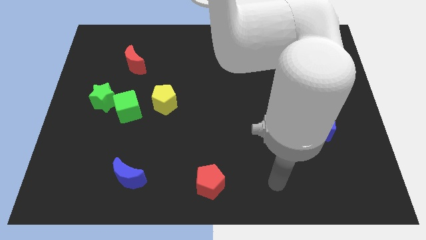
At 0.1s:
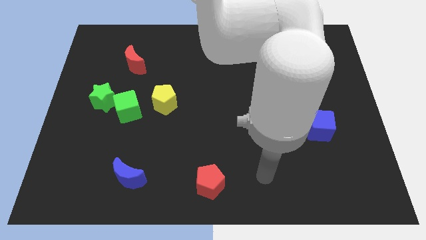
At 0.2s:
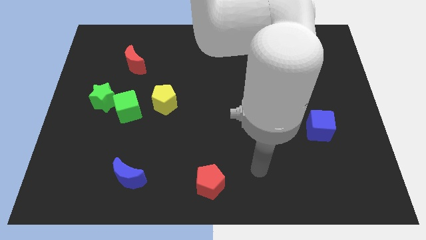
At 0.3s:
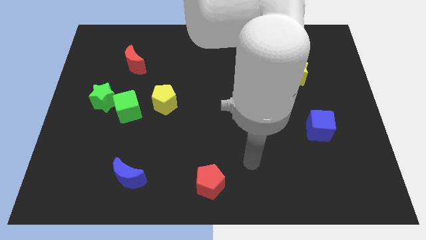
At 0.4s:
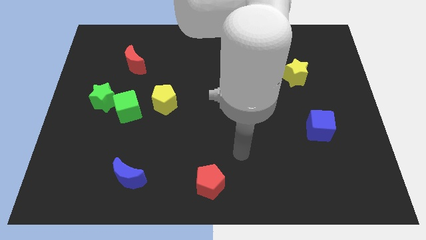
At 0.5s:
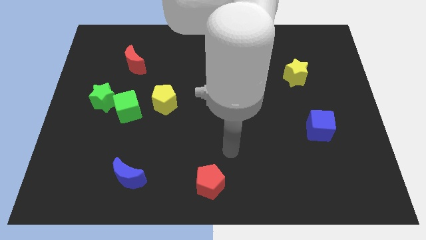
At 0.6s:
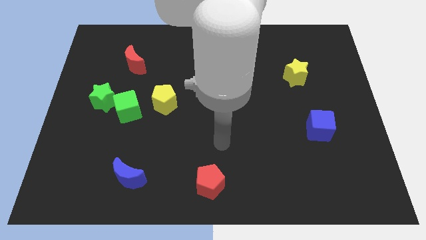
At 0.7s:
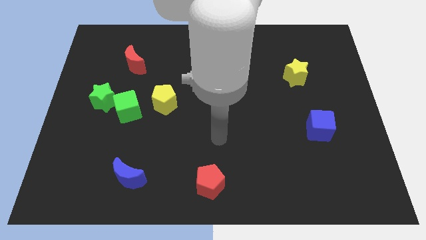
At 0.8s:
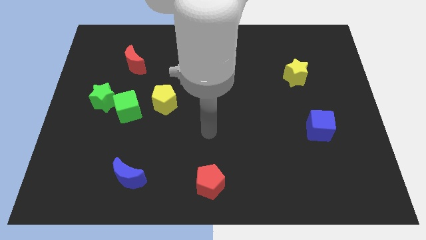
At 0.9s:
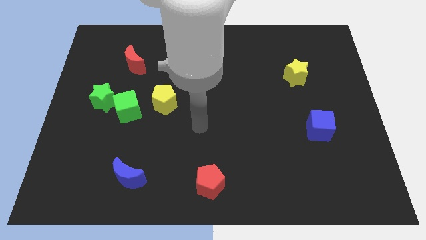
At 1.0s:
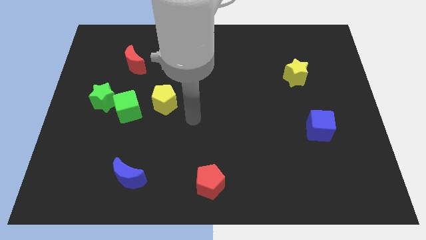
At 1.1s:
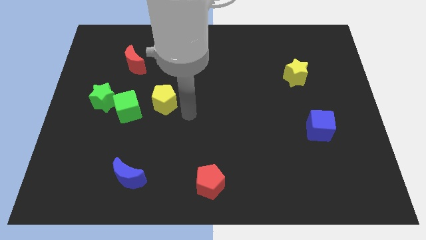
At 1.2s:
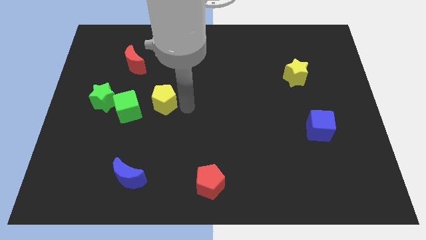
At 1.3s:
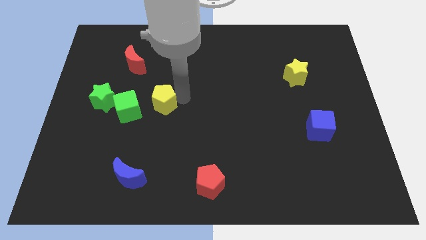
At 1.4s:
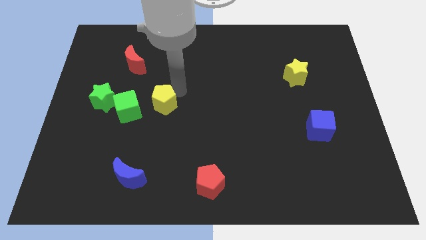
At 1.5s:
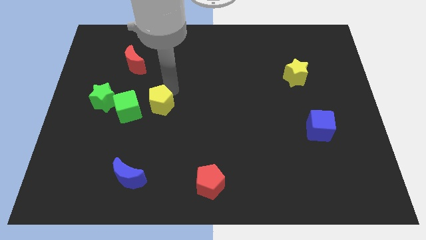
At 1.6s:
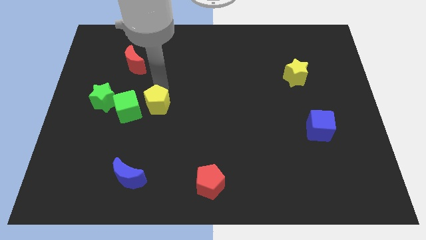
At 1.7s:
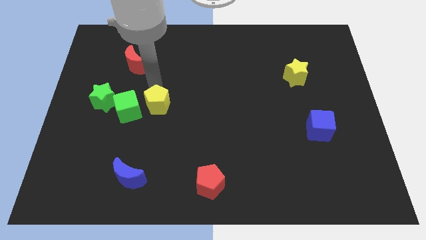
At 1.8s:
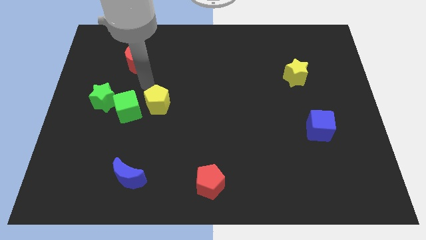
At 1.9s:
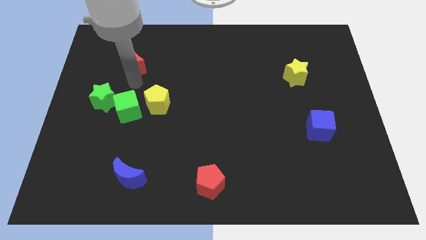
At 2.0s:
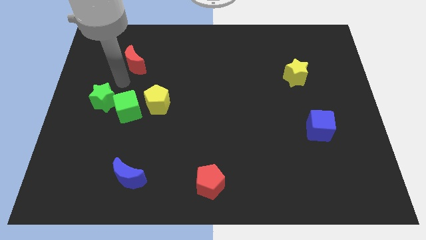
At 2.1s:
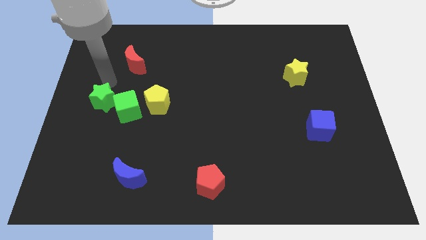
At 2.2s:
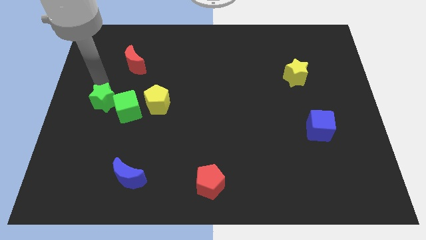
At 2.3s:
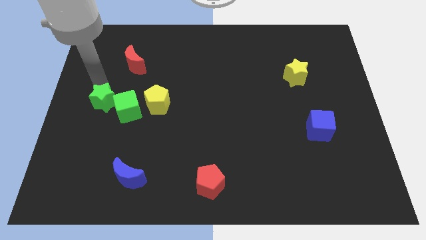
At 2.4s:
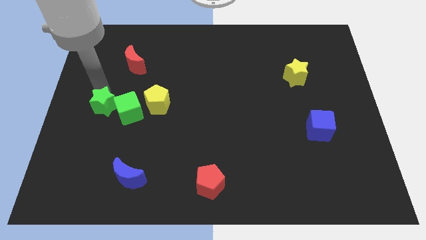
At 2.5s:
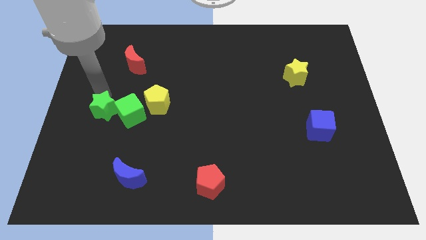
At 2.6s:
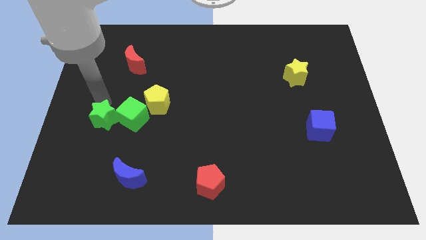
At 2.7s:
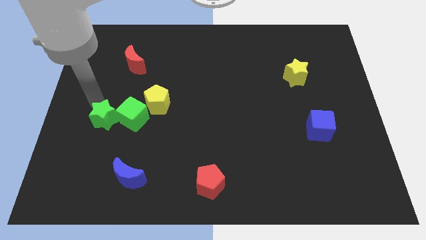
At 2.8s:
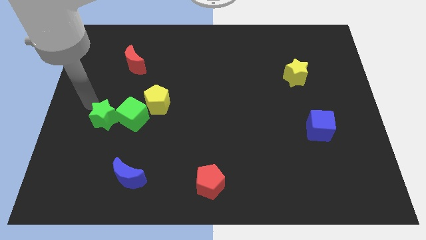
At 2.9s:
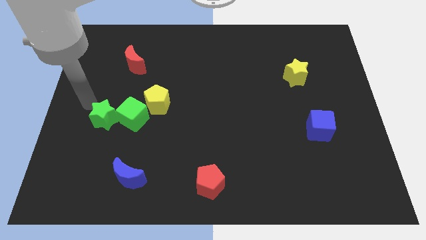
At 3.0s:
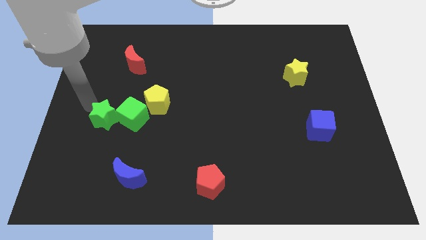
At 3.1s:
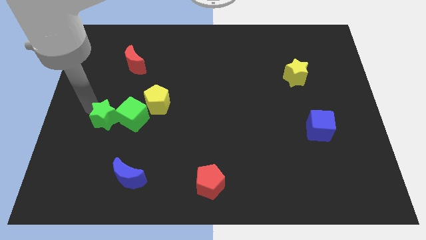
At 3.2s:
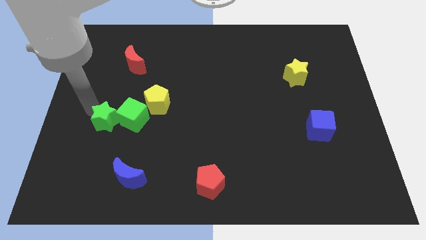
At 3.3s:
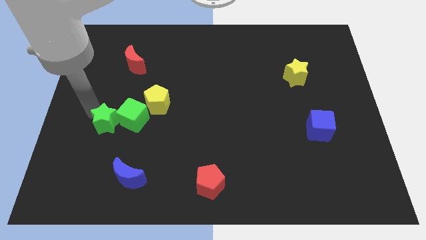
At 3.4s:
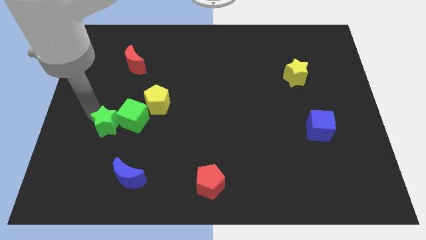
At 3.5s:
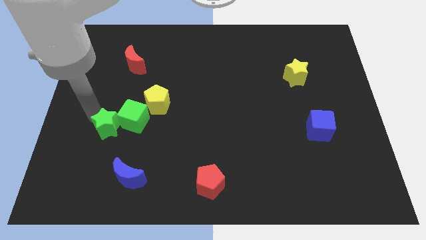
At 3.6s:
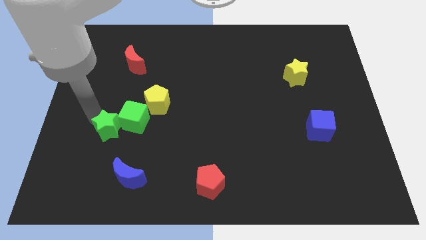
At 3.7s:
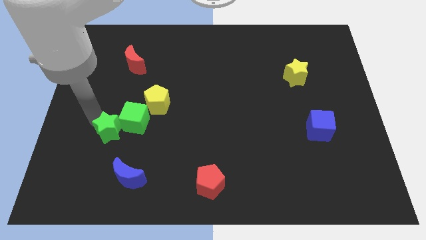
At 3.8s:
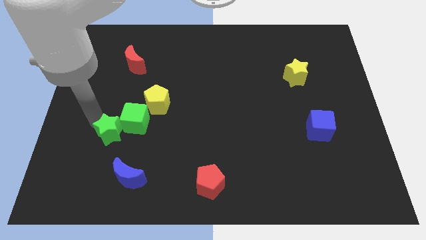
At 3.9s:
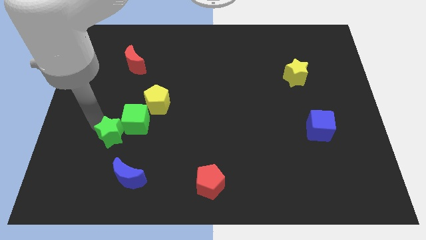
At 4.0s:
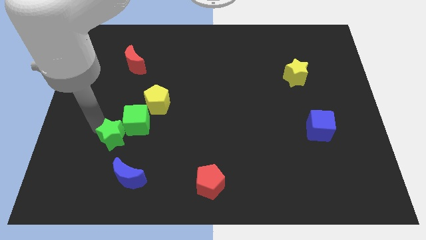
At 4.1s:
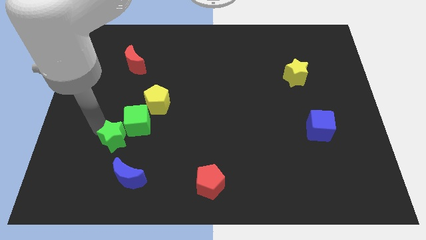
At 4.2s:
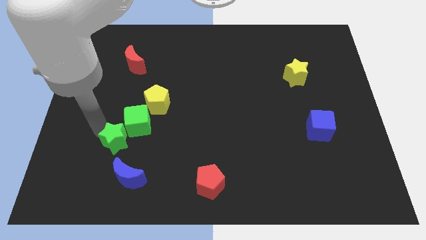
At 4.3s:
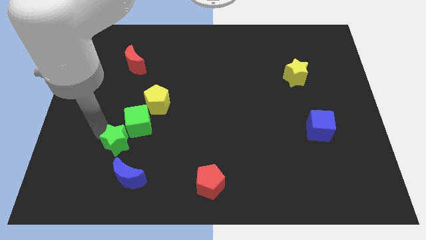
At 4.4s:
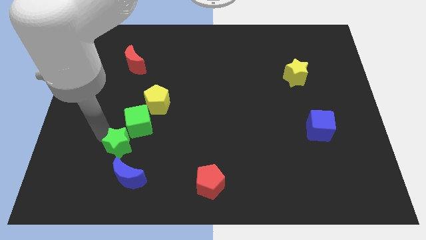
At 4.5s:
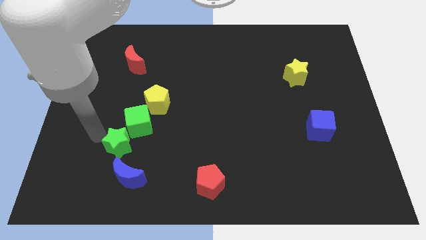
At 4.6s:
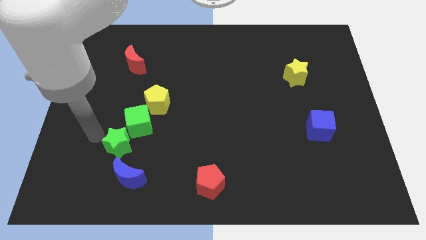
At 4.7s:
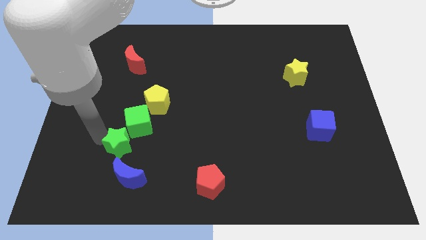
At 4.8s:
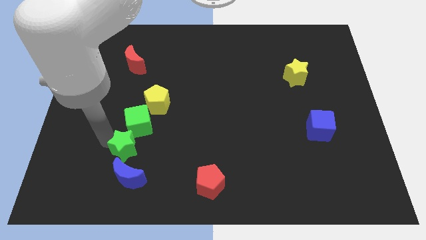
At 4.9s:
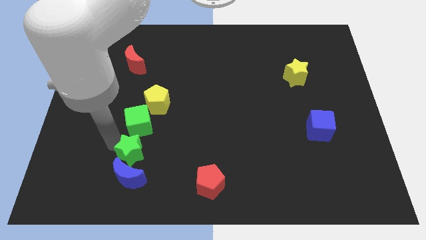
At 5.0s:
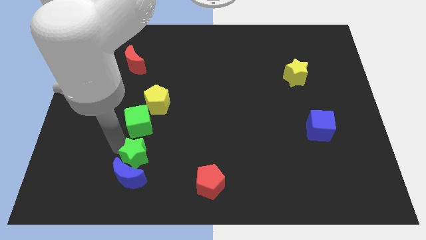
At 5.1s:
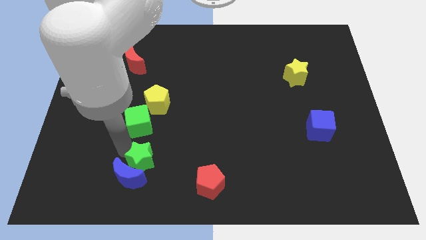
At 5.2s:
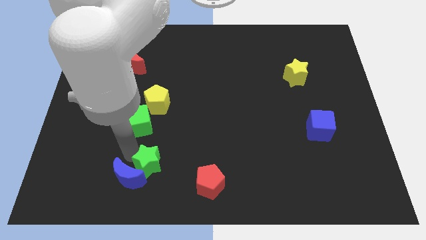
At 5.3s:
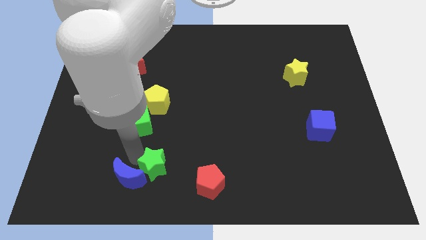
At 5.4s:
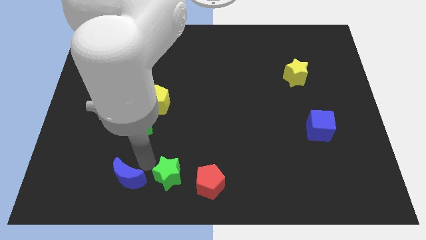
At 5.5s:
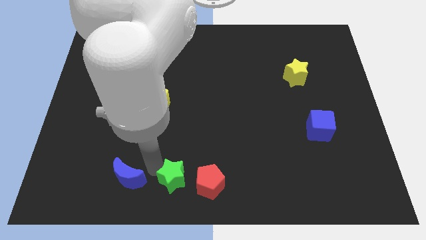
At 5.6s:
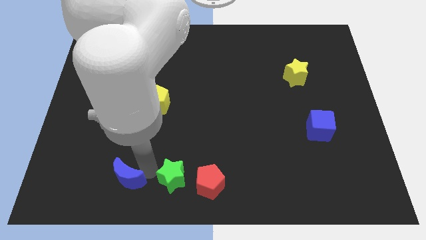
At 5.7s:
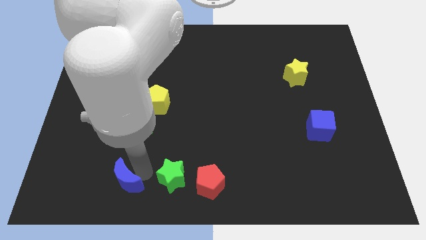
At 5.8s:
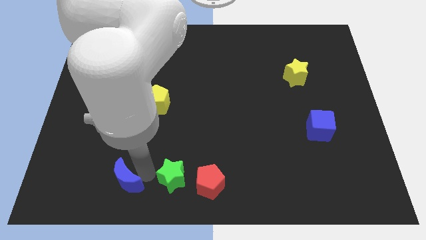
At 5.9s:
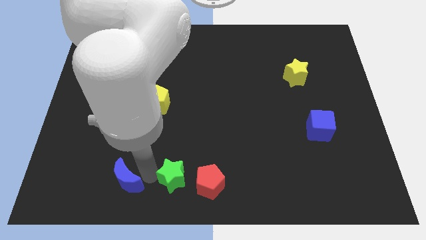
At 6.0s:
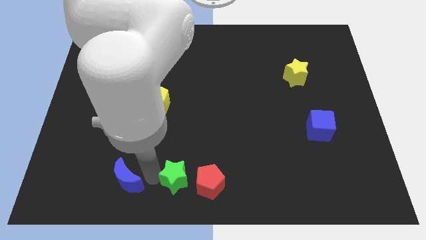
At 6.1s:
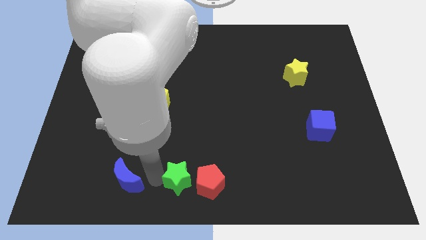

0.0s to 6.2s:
move the green star close to the red pentagon

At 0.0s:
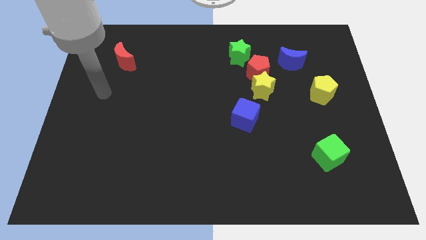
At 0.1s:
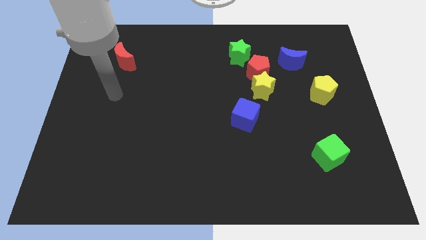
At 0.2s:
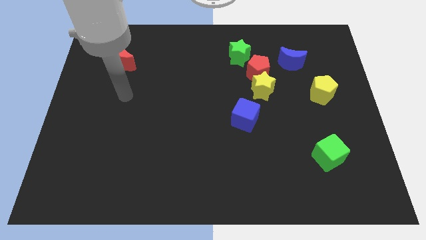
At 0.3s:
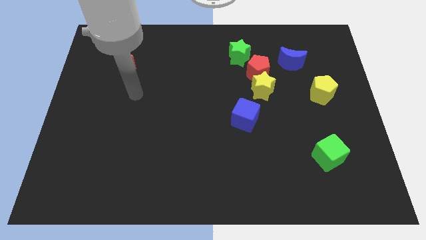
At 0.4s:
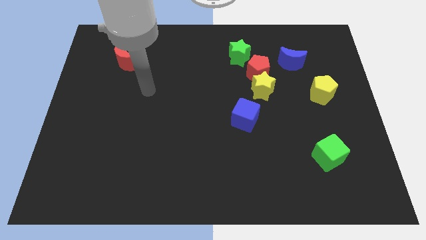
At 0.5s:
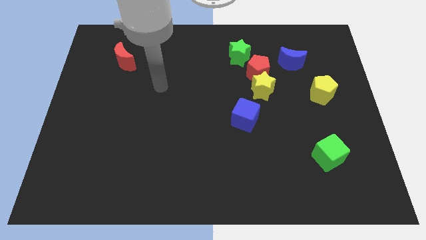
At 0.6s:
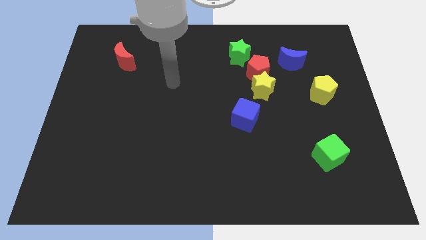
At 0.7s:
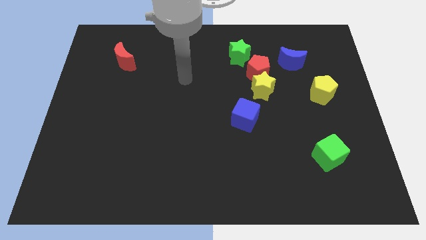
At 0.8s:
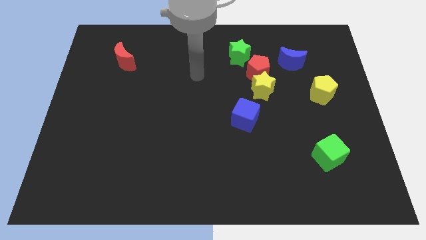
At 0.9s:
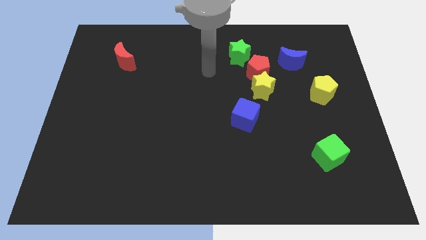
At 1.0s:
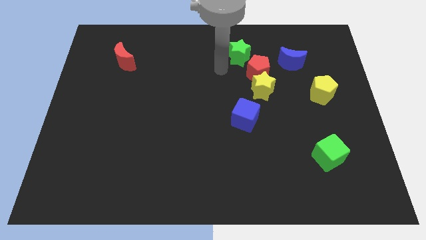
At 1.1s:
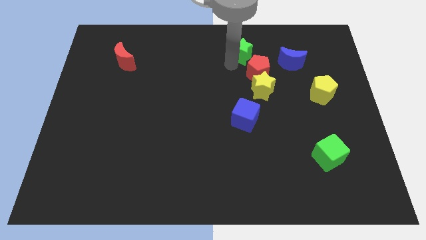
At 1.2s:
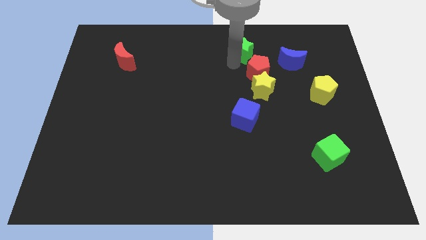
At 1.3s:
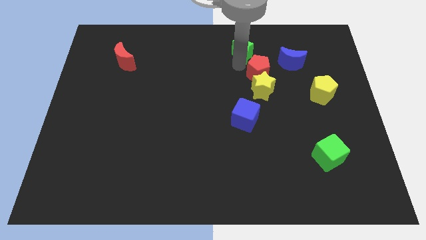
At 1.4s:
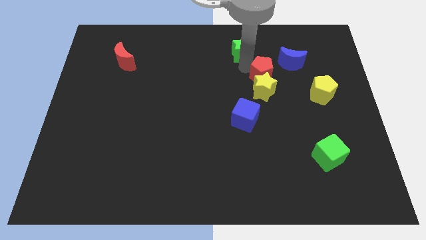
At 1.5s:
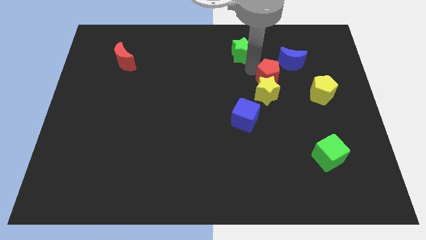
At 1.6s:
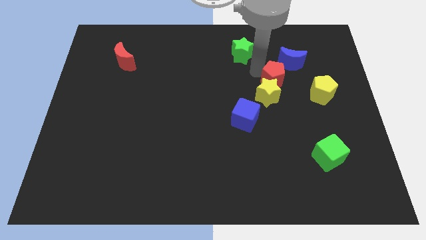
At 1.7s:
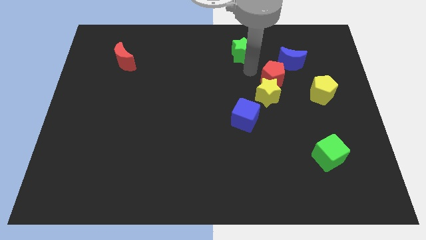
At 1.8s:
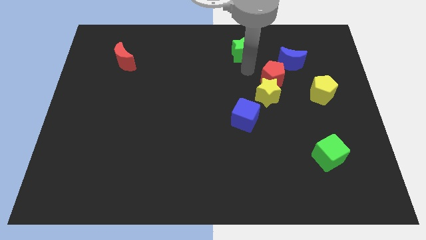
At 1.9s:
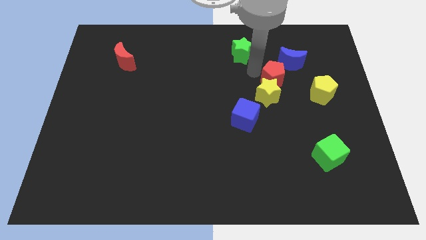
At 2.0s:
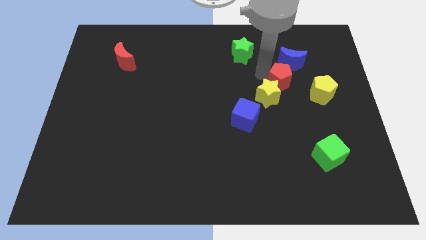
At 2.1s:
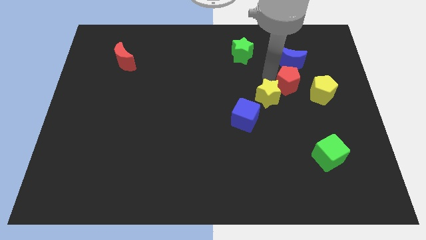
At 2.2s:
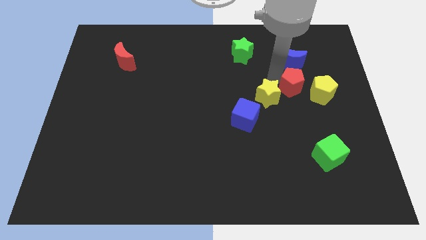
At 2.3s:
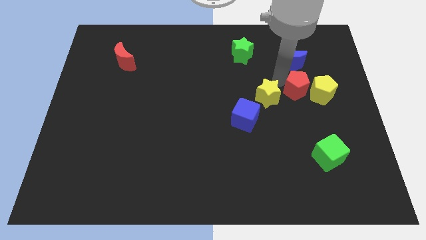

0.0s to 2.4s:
put the red pentagon next to the yellow pentagon
